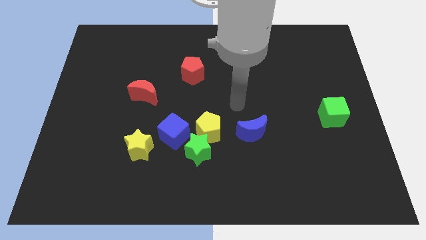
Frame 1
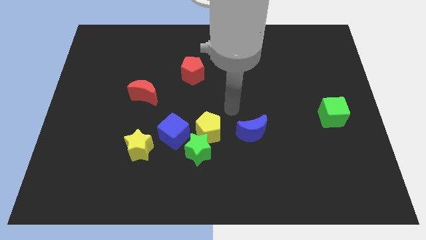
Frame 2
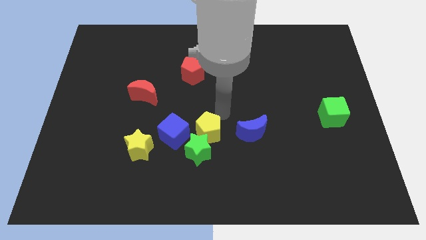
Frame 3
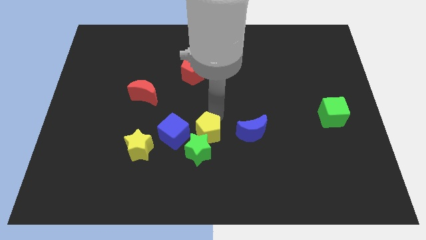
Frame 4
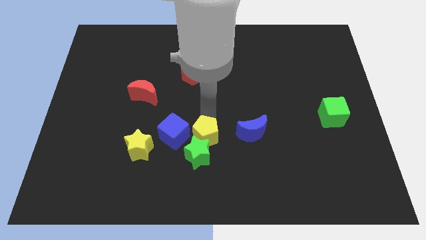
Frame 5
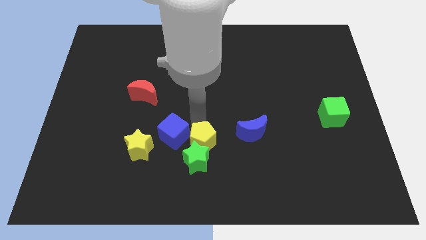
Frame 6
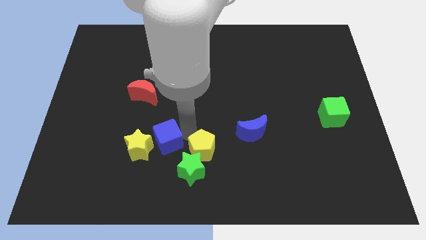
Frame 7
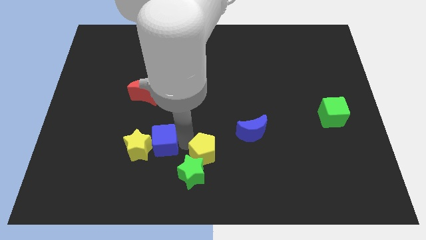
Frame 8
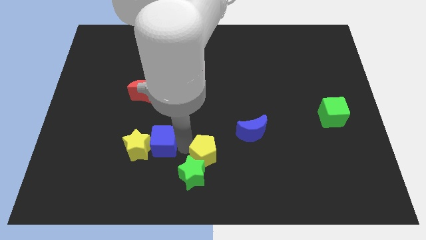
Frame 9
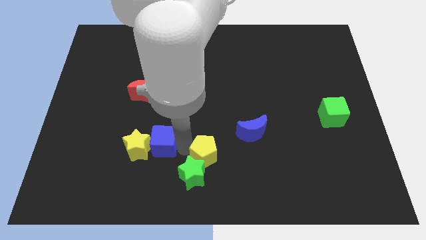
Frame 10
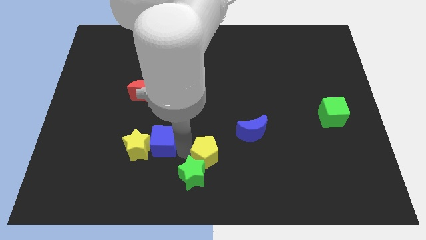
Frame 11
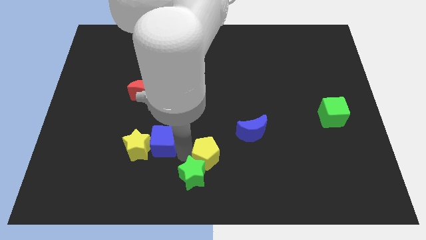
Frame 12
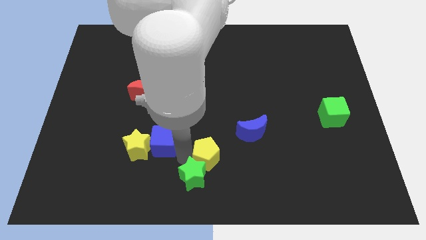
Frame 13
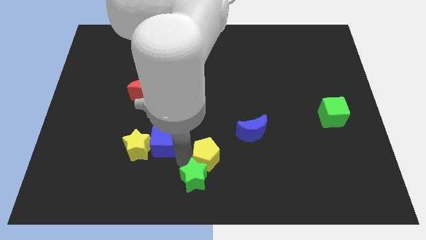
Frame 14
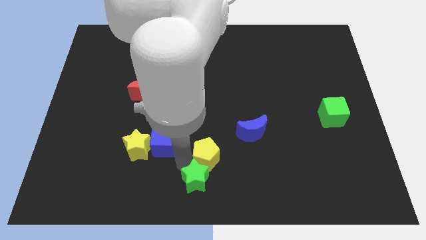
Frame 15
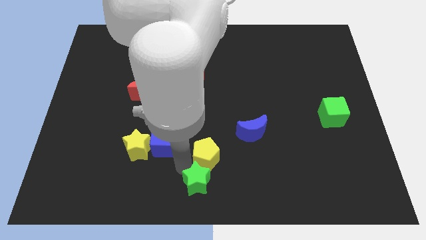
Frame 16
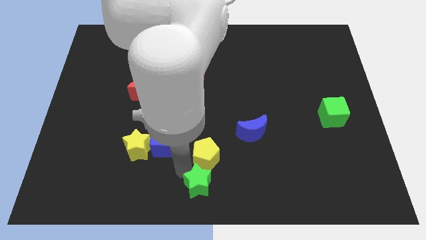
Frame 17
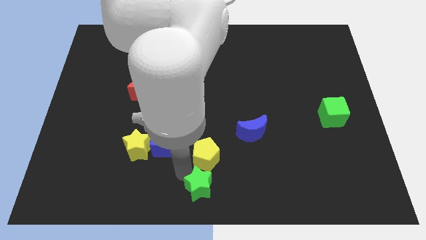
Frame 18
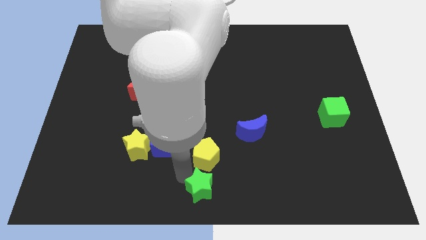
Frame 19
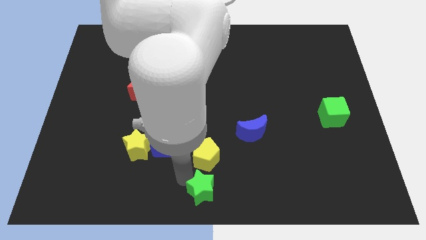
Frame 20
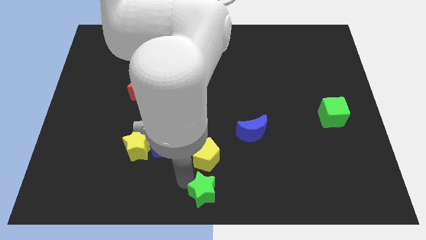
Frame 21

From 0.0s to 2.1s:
pull the green star apart from the yellow pentagon and blue cube

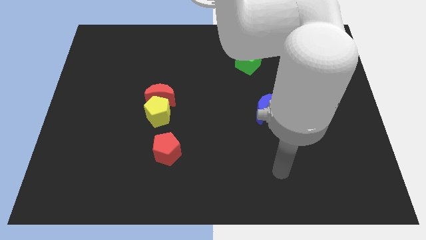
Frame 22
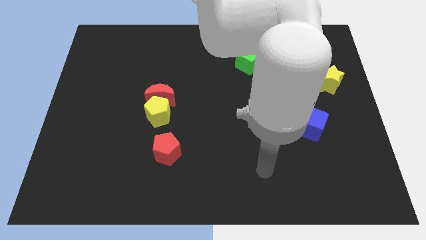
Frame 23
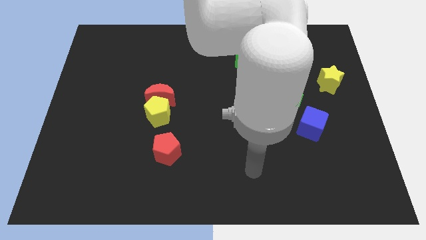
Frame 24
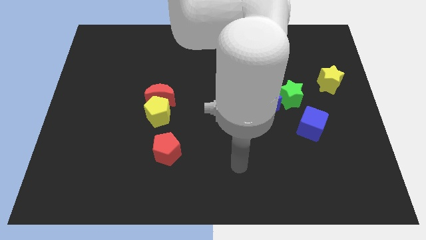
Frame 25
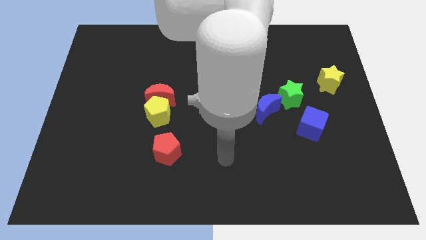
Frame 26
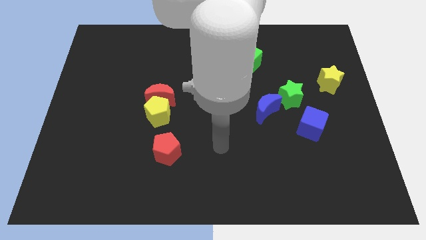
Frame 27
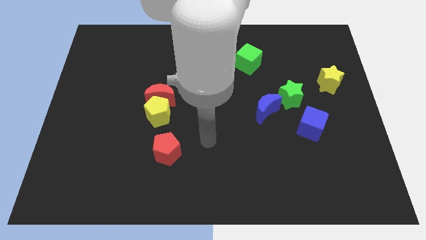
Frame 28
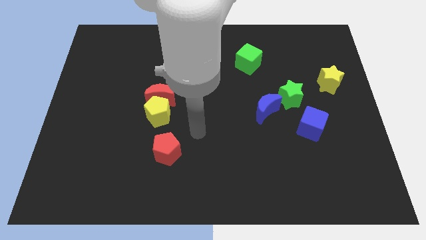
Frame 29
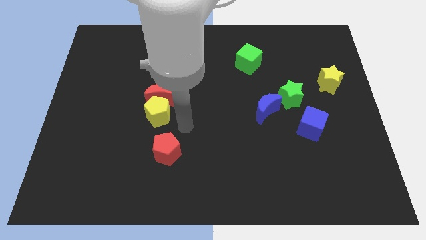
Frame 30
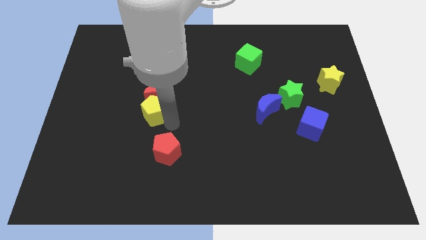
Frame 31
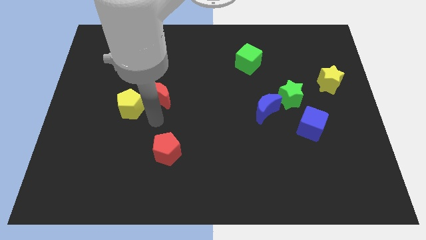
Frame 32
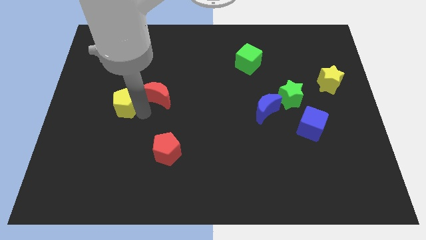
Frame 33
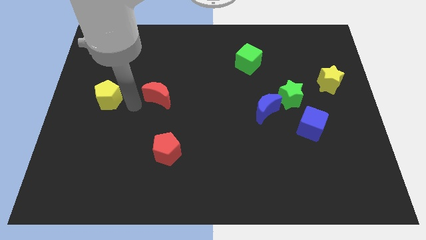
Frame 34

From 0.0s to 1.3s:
separate the red moon from the yellow pentagon

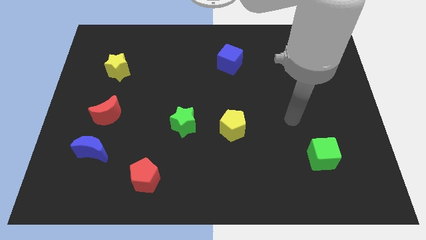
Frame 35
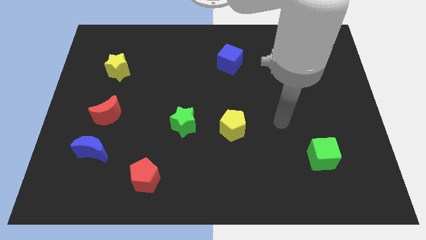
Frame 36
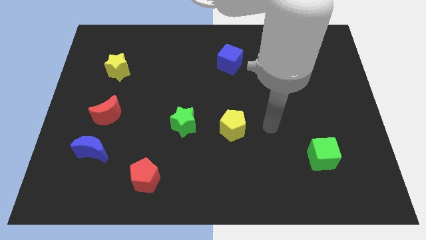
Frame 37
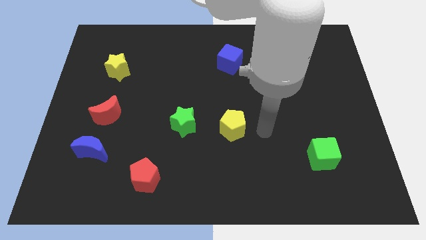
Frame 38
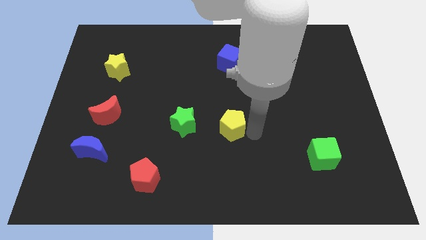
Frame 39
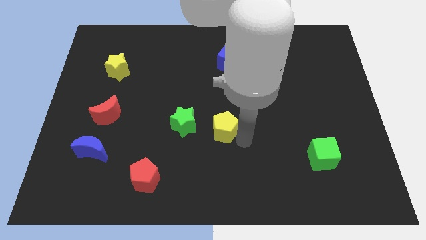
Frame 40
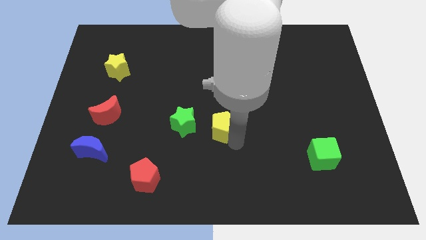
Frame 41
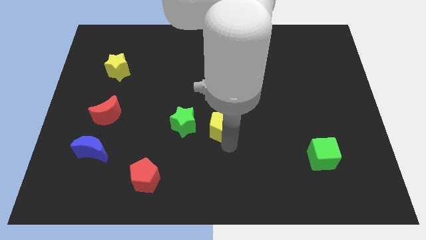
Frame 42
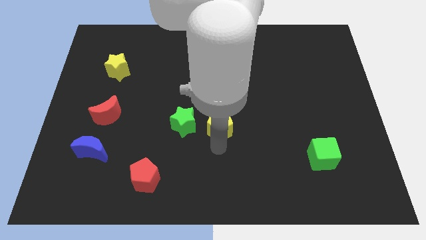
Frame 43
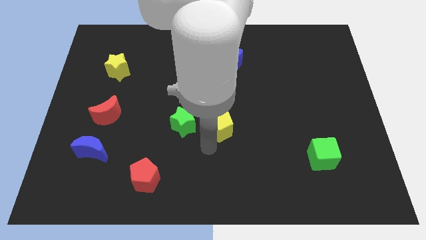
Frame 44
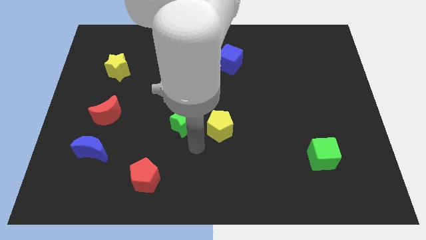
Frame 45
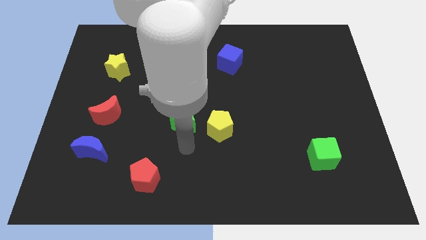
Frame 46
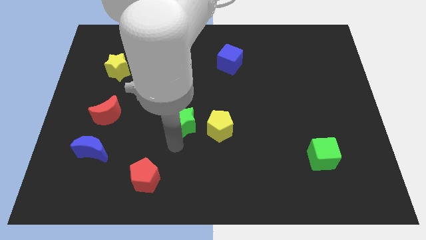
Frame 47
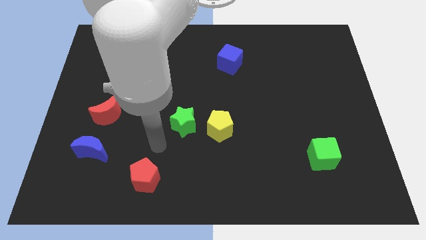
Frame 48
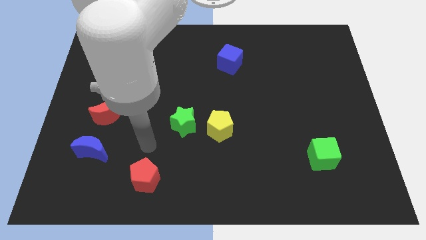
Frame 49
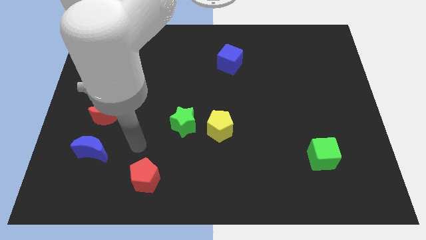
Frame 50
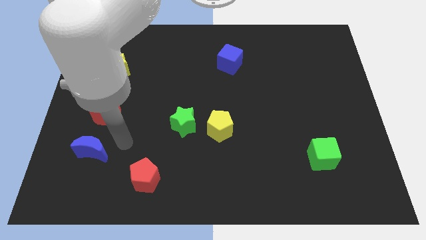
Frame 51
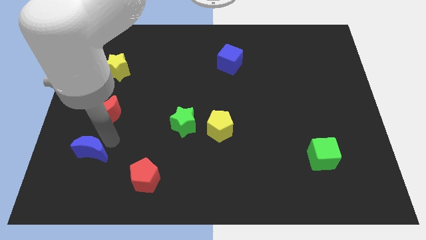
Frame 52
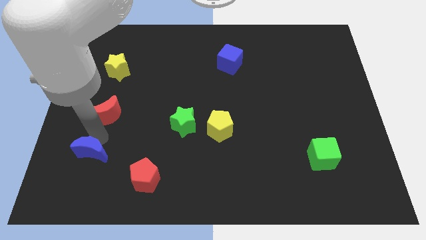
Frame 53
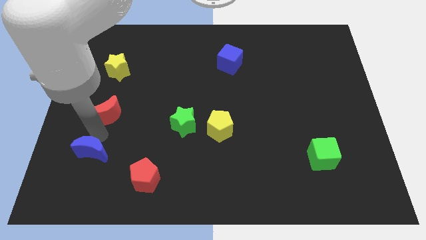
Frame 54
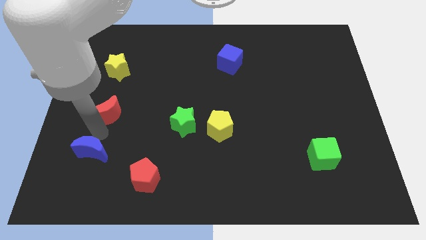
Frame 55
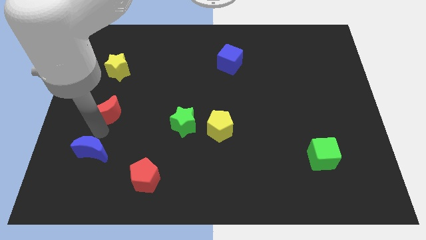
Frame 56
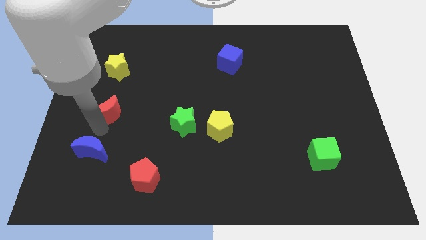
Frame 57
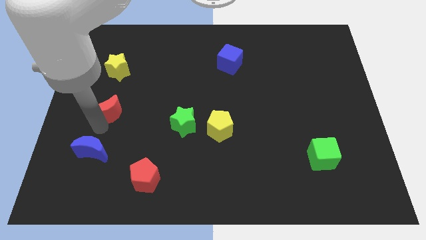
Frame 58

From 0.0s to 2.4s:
move the red moon away from the blue moon

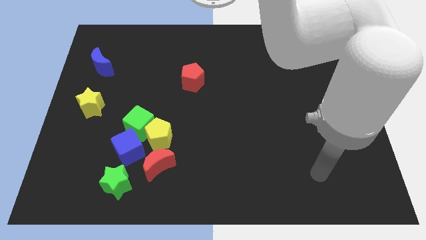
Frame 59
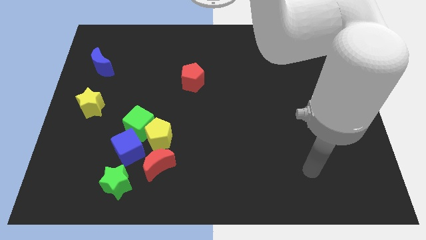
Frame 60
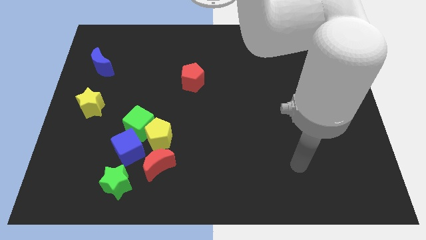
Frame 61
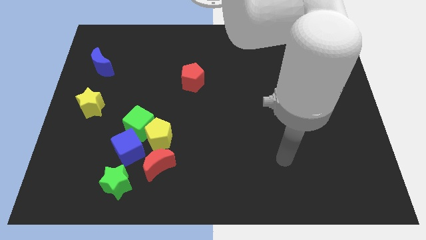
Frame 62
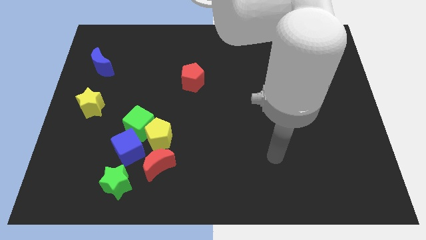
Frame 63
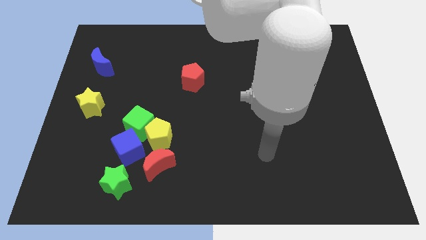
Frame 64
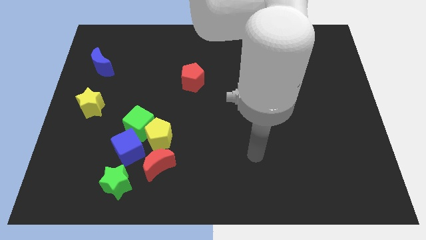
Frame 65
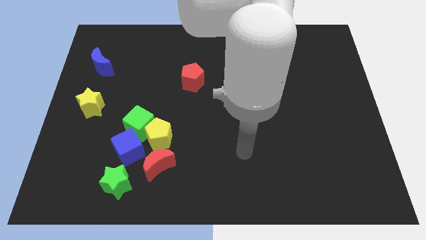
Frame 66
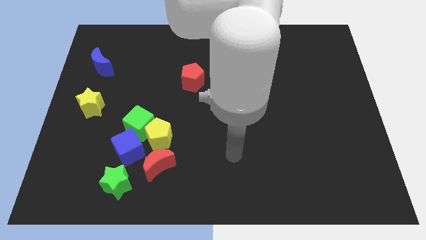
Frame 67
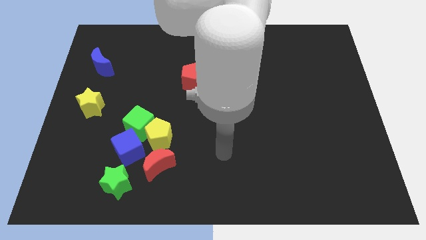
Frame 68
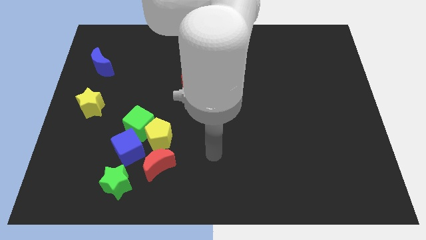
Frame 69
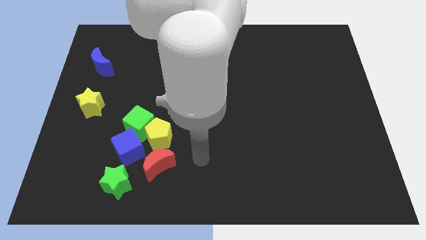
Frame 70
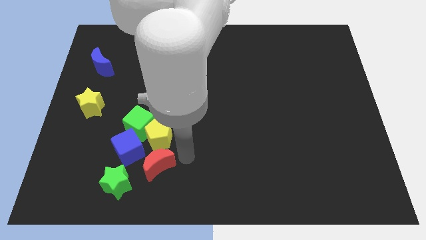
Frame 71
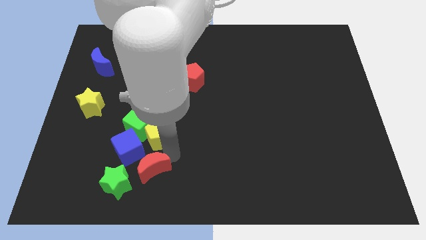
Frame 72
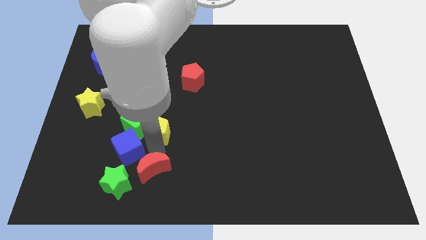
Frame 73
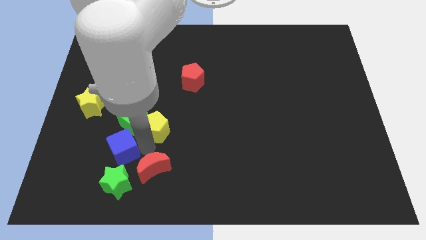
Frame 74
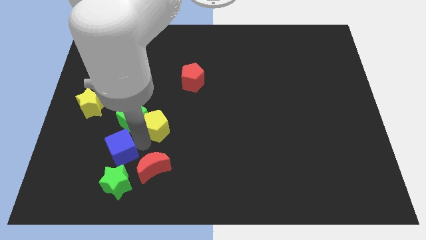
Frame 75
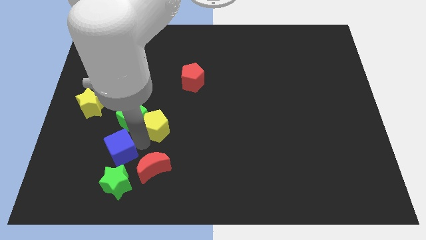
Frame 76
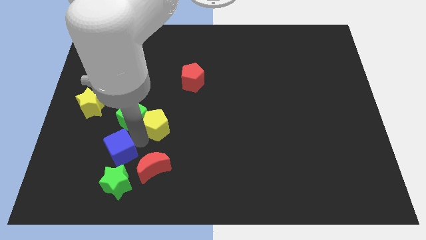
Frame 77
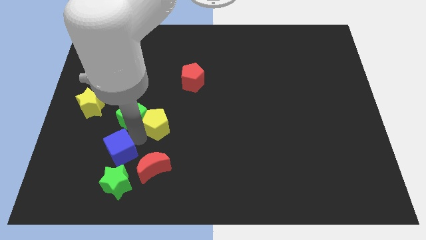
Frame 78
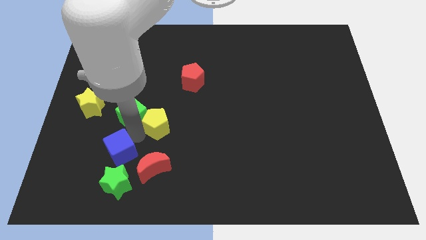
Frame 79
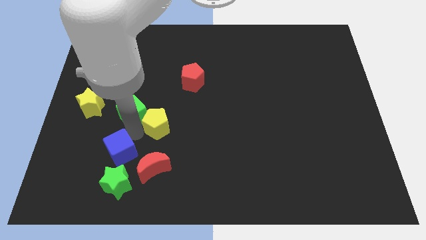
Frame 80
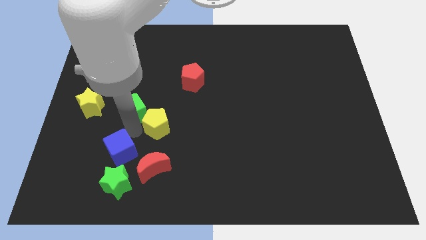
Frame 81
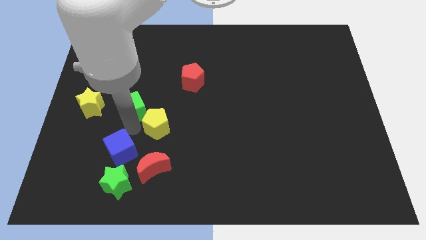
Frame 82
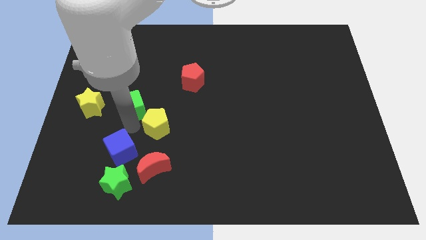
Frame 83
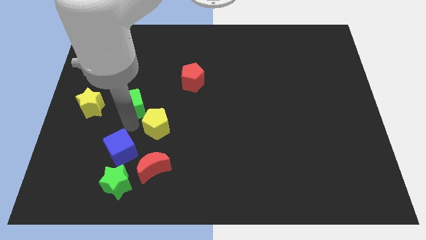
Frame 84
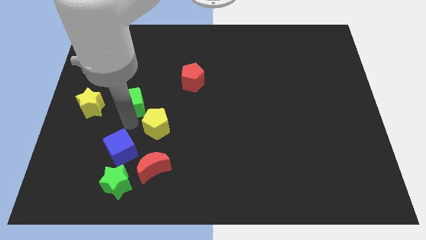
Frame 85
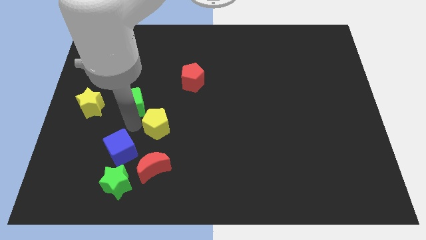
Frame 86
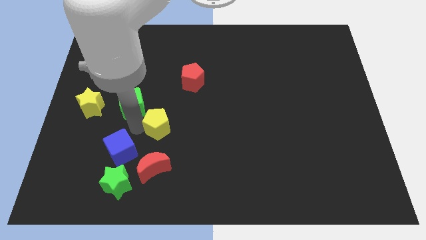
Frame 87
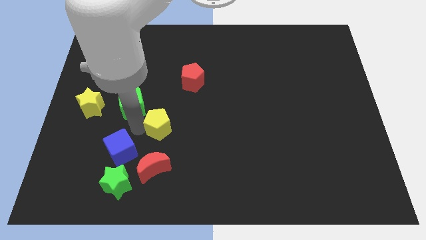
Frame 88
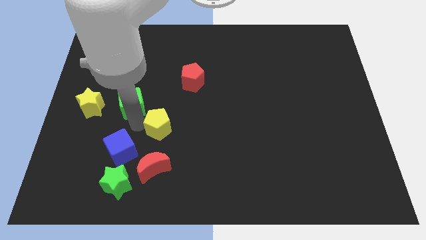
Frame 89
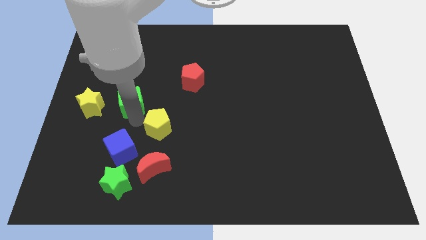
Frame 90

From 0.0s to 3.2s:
move the green cube away from the yellow pentagon and blue cube

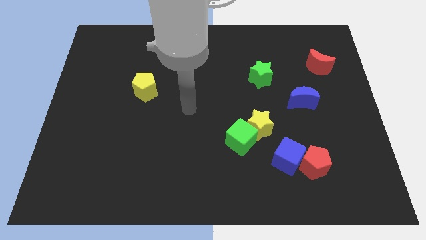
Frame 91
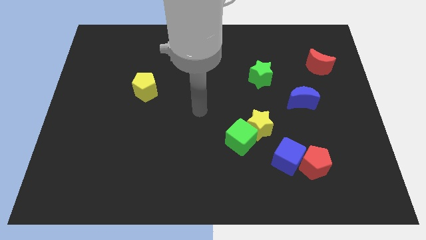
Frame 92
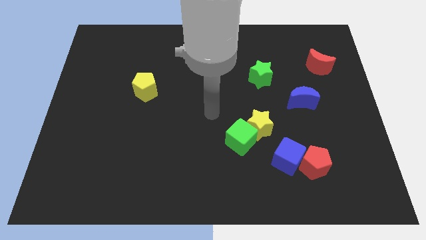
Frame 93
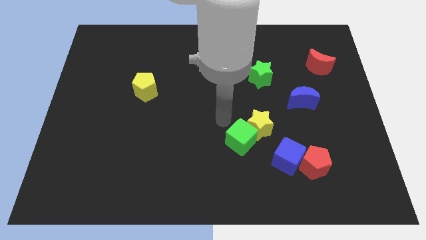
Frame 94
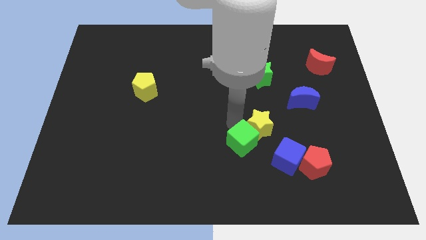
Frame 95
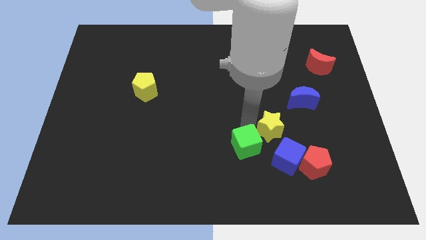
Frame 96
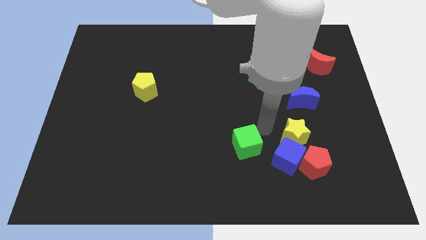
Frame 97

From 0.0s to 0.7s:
move the green cube away from the yellow star
